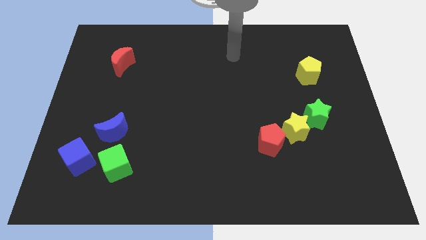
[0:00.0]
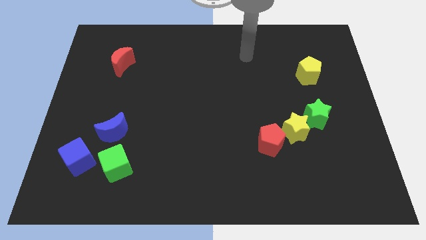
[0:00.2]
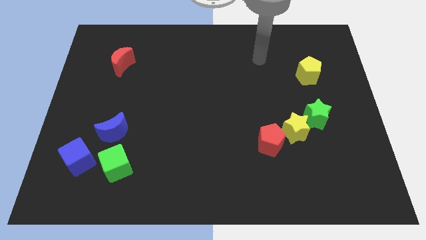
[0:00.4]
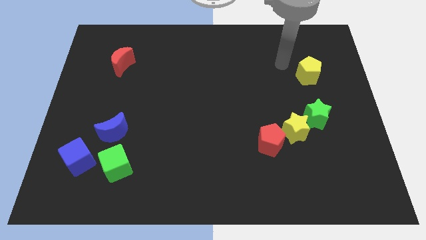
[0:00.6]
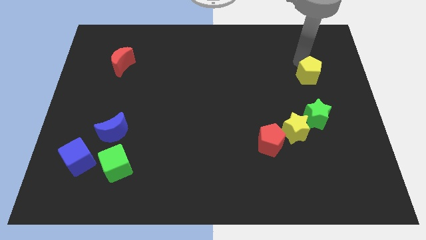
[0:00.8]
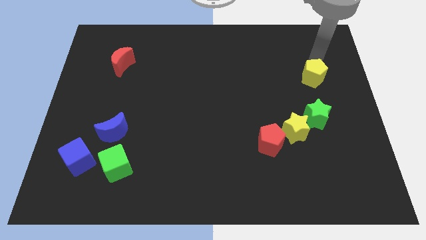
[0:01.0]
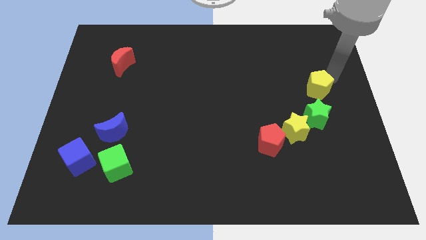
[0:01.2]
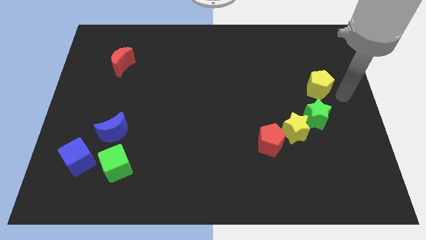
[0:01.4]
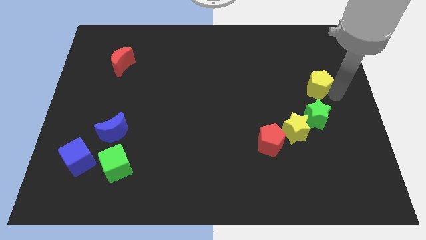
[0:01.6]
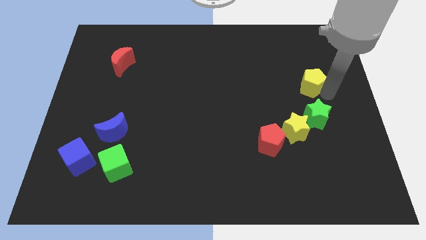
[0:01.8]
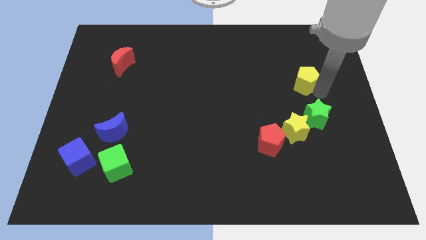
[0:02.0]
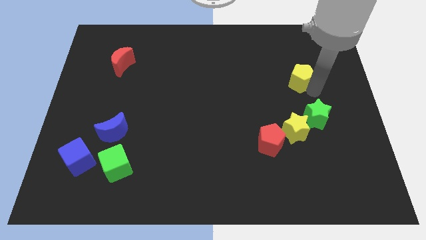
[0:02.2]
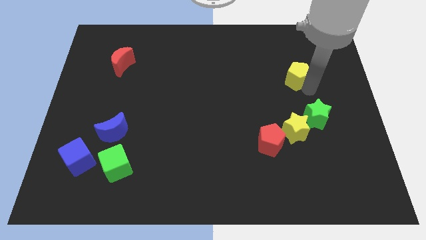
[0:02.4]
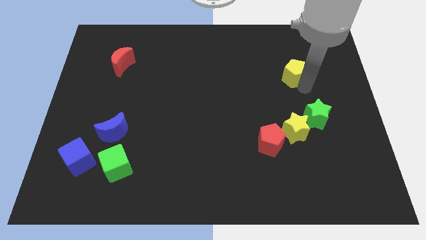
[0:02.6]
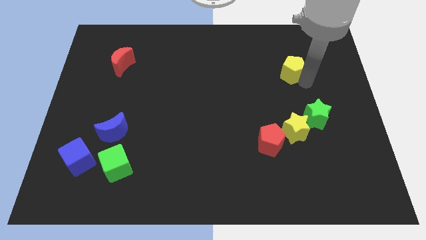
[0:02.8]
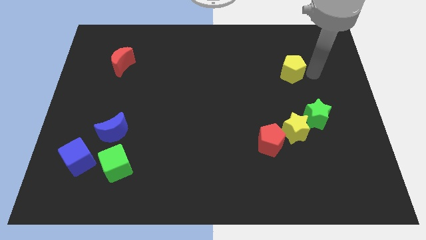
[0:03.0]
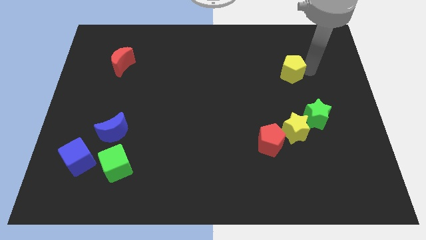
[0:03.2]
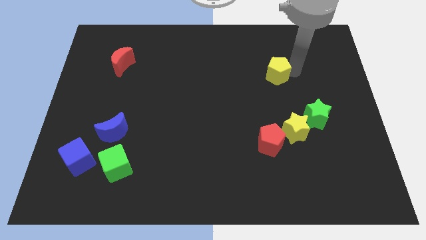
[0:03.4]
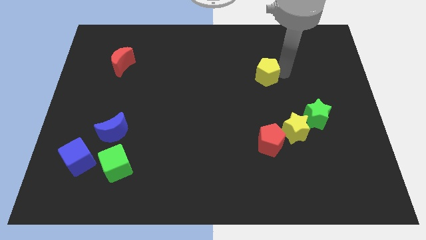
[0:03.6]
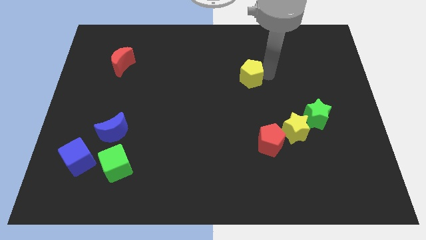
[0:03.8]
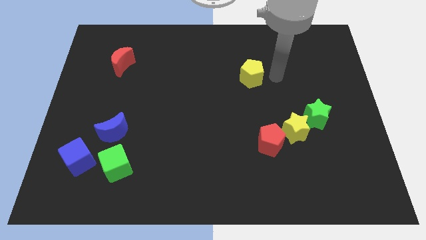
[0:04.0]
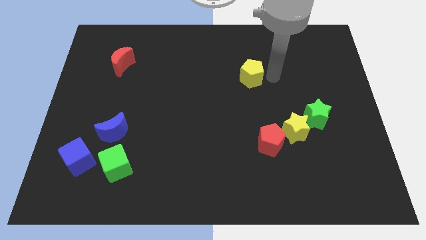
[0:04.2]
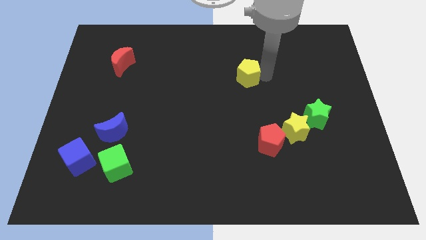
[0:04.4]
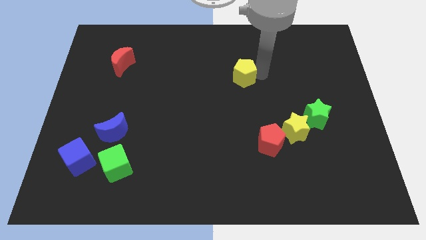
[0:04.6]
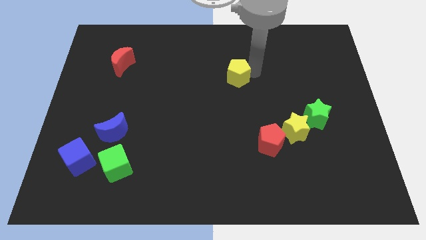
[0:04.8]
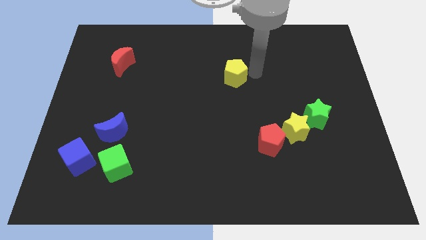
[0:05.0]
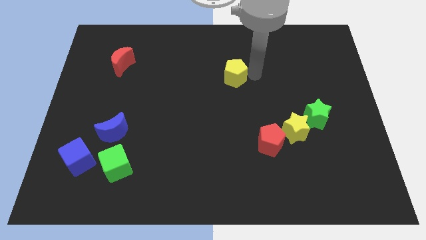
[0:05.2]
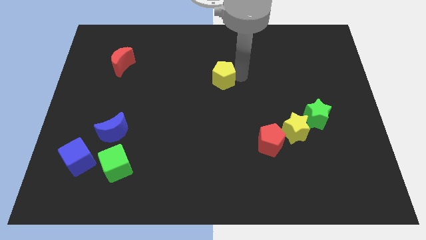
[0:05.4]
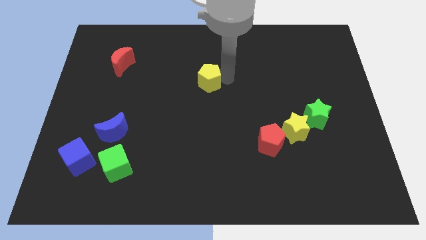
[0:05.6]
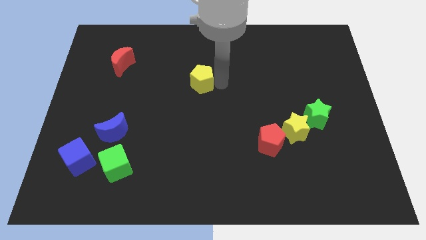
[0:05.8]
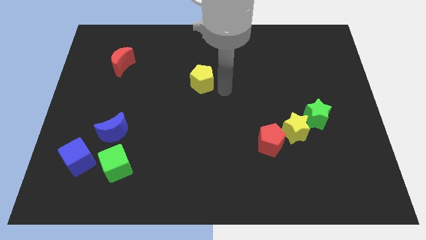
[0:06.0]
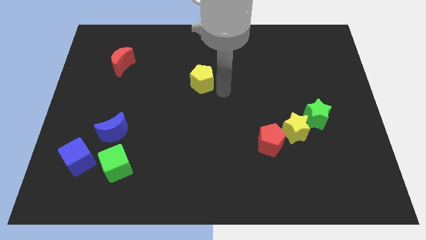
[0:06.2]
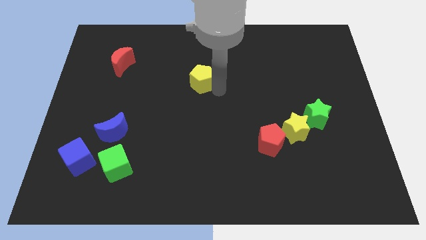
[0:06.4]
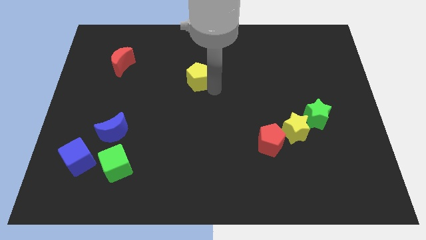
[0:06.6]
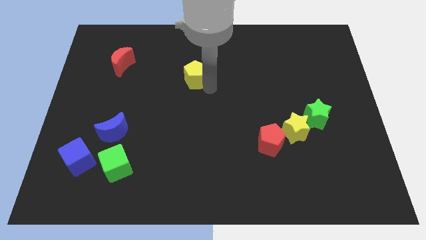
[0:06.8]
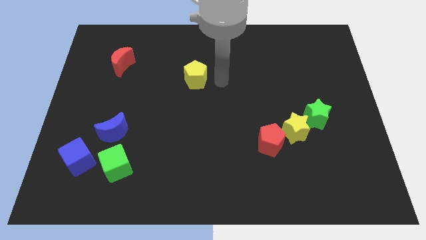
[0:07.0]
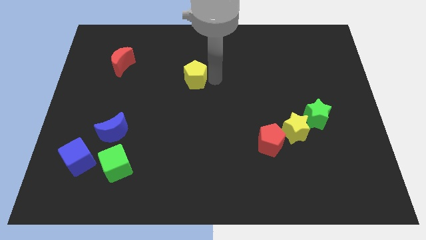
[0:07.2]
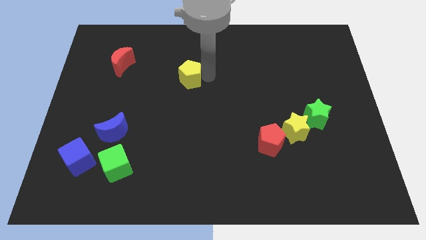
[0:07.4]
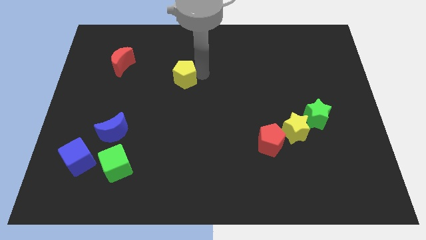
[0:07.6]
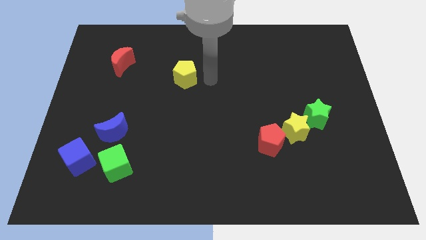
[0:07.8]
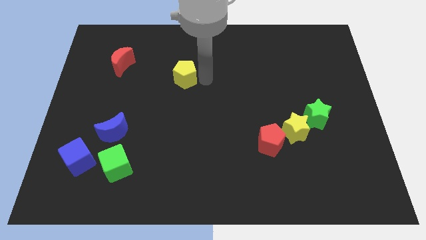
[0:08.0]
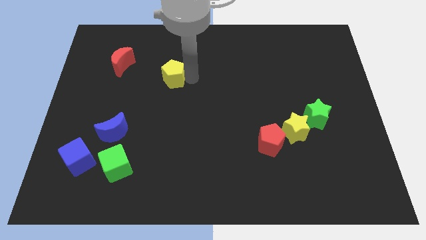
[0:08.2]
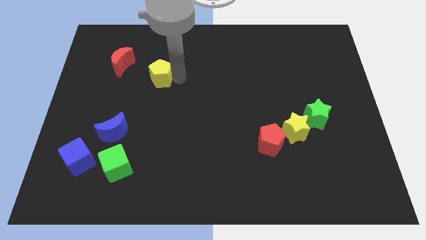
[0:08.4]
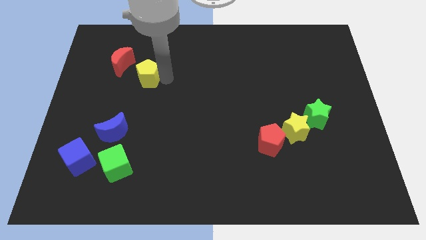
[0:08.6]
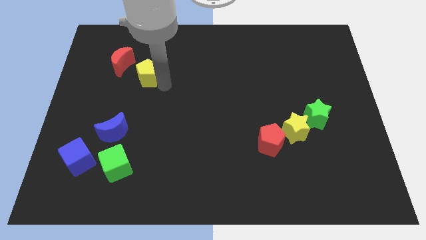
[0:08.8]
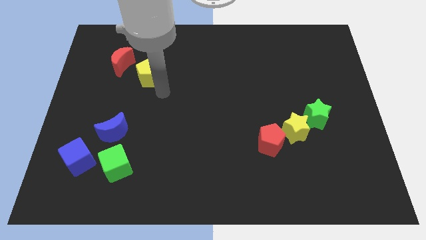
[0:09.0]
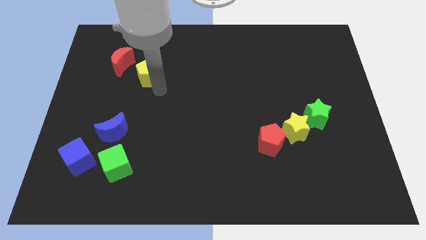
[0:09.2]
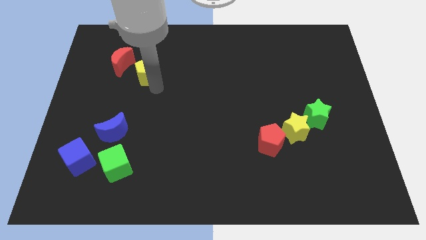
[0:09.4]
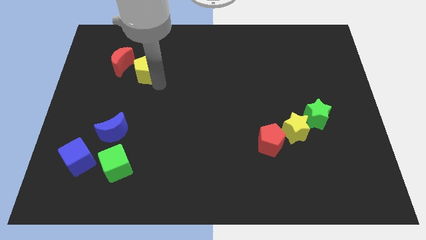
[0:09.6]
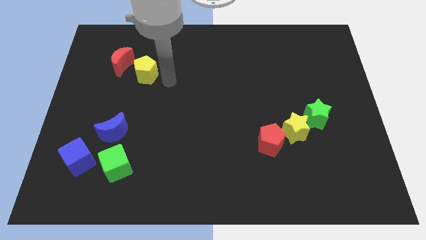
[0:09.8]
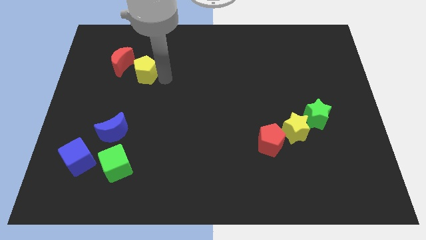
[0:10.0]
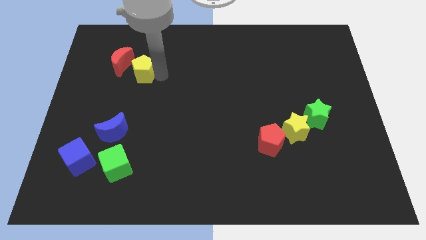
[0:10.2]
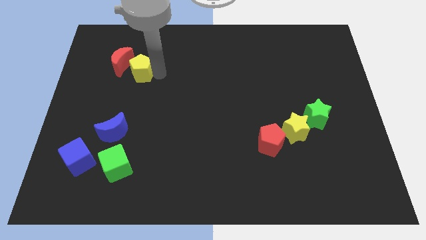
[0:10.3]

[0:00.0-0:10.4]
slide the yellow pentagon next to the red moon

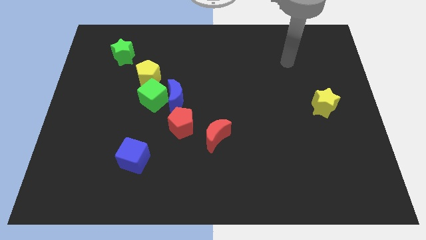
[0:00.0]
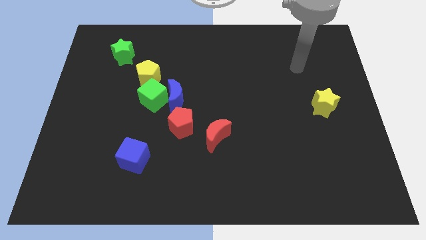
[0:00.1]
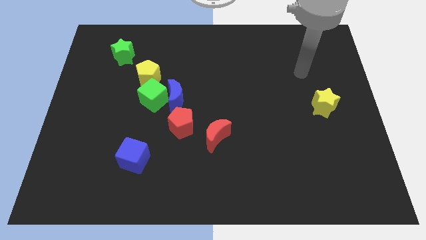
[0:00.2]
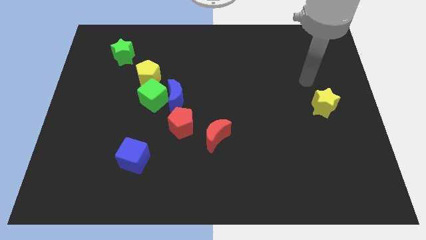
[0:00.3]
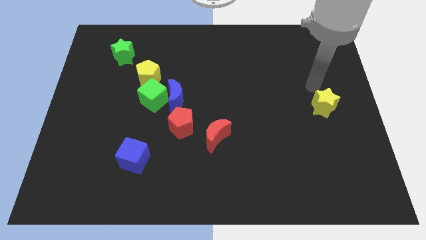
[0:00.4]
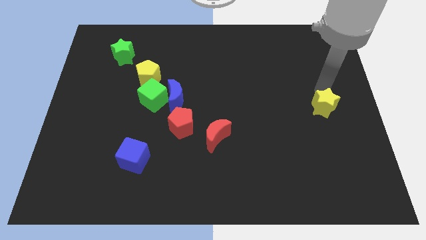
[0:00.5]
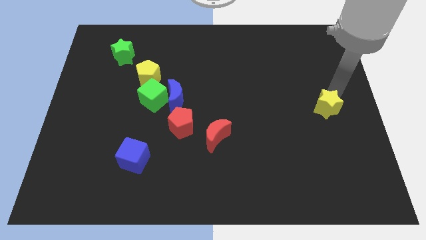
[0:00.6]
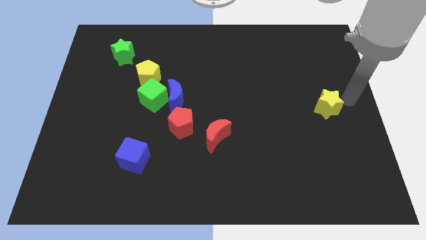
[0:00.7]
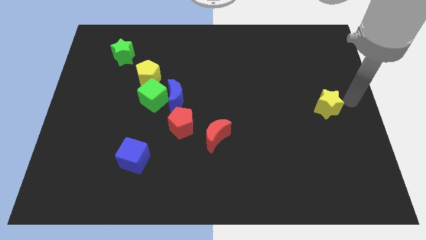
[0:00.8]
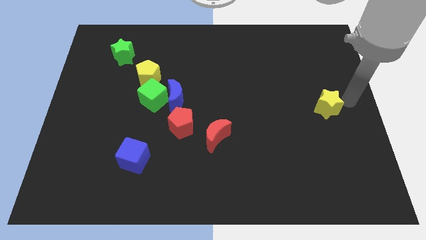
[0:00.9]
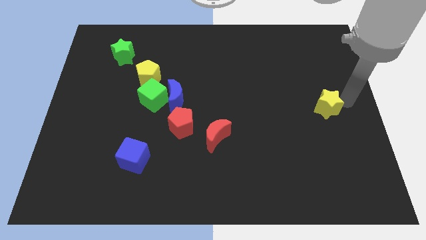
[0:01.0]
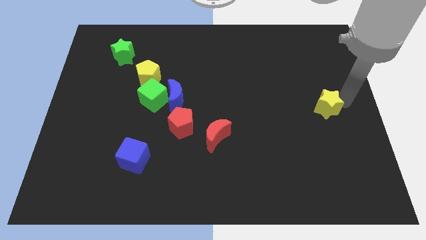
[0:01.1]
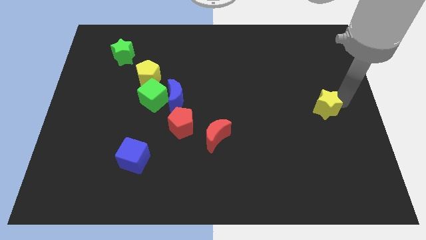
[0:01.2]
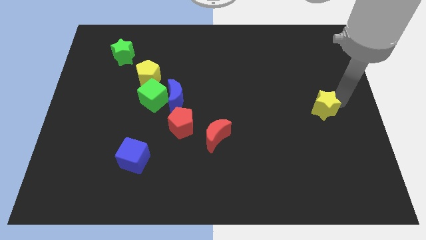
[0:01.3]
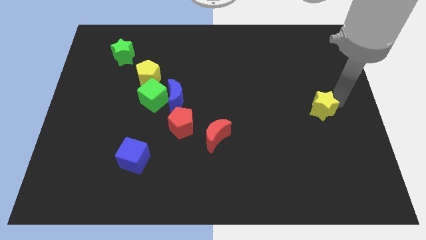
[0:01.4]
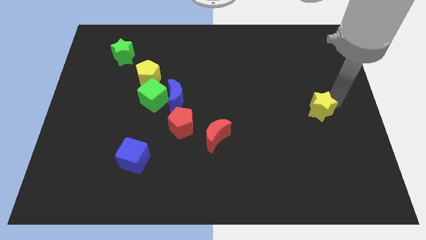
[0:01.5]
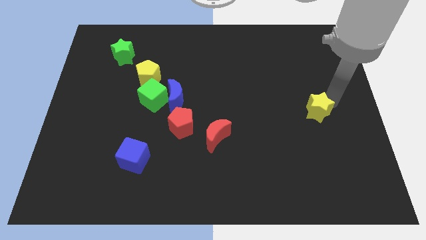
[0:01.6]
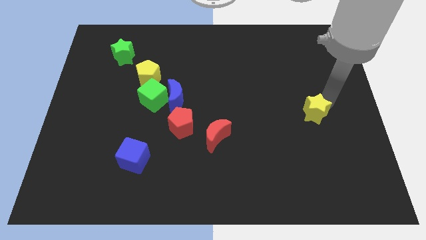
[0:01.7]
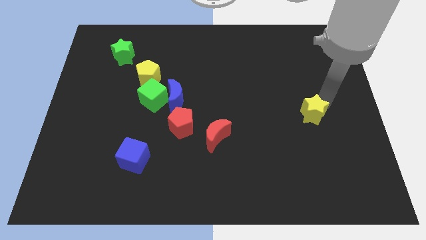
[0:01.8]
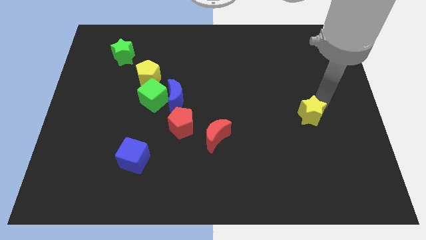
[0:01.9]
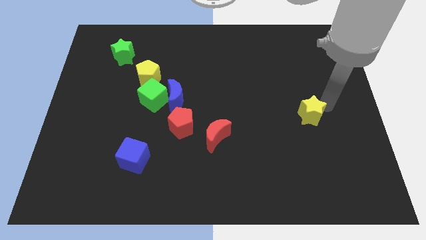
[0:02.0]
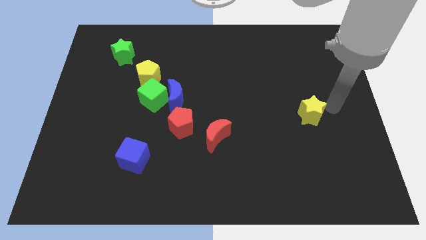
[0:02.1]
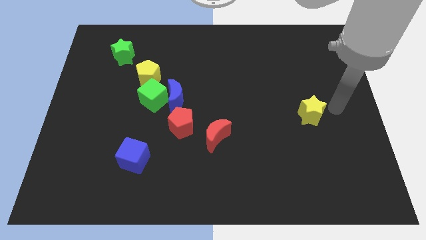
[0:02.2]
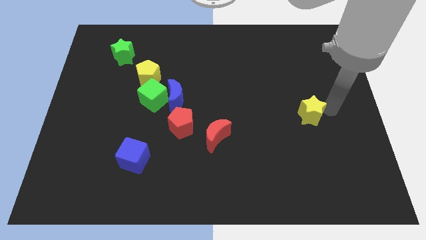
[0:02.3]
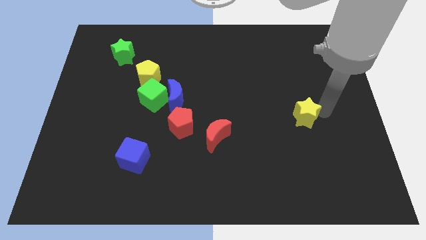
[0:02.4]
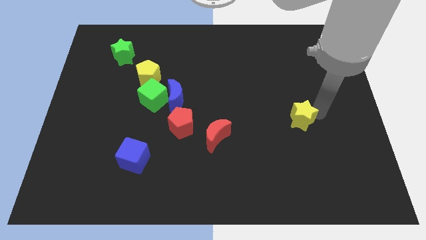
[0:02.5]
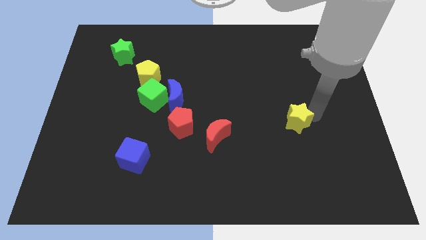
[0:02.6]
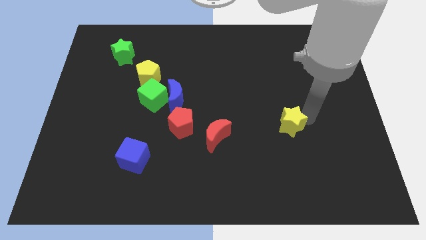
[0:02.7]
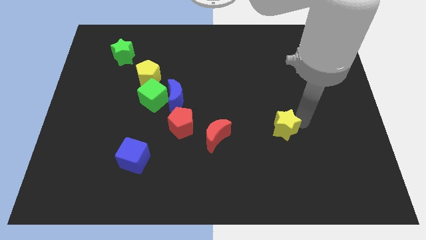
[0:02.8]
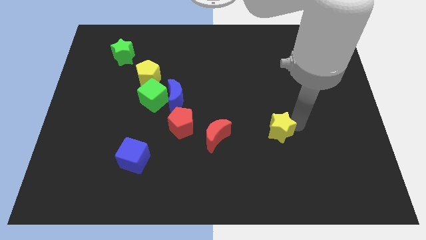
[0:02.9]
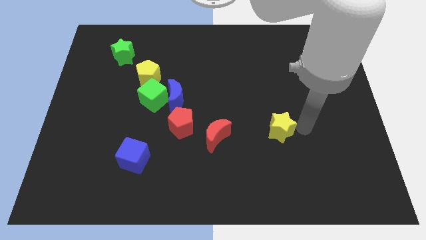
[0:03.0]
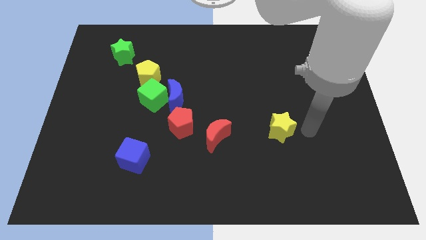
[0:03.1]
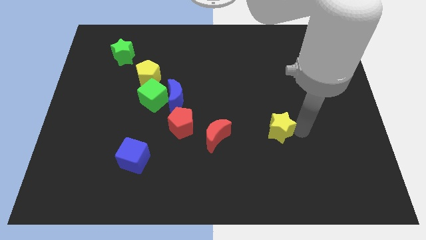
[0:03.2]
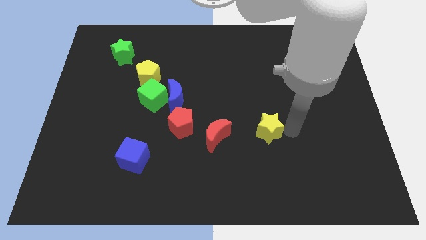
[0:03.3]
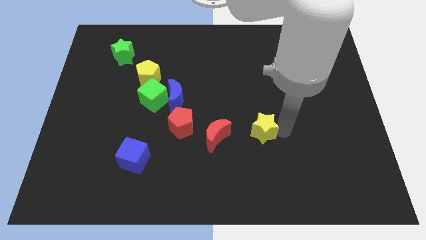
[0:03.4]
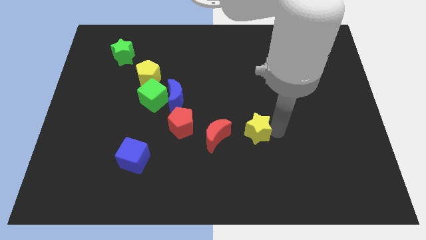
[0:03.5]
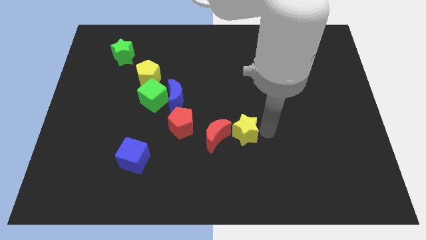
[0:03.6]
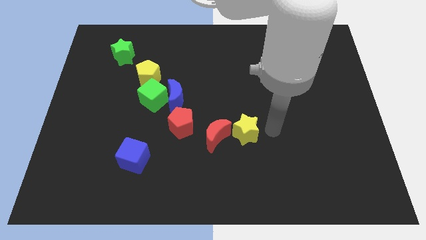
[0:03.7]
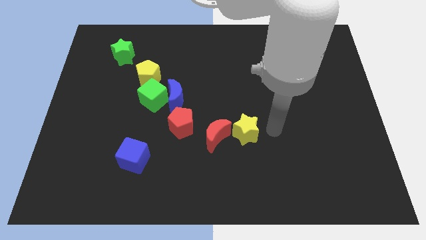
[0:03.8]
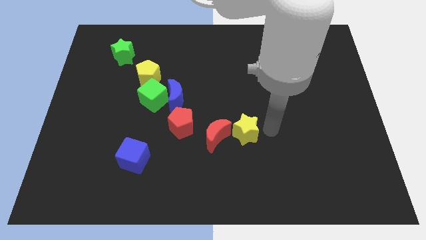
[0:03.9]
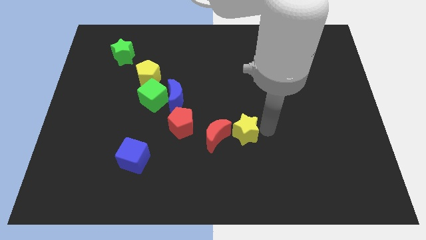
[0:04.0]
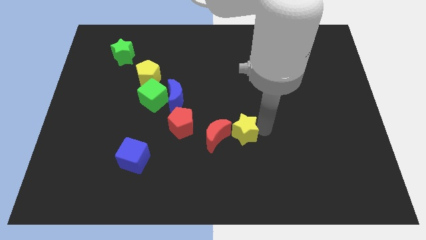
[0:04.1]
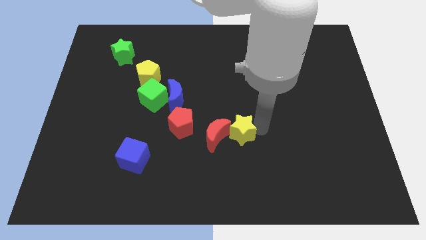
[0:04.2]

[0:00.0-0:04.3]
slide the yellow star close to the red moon
